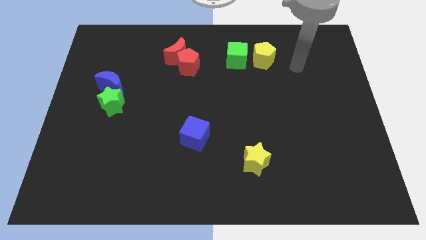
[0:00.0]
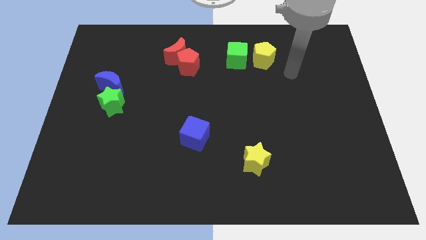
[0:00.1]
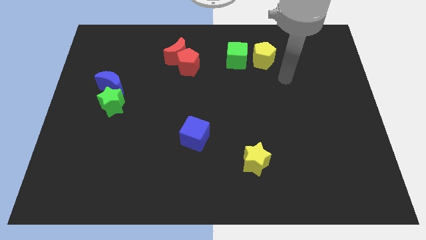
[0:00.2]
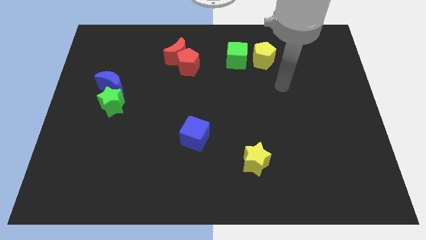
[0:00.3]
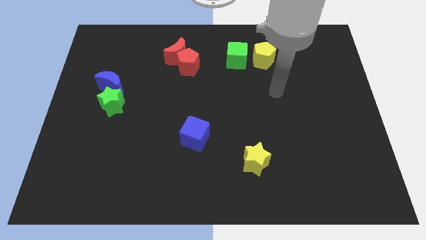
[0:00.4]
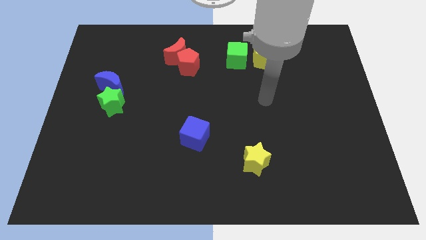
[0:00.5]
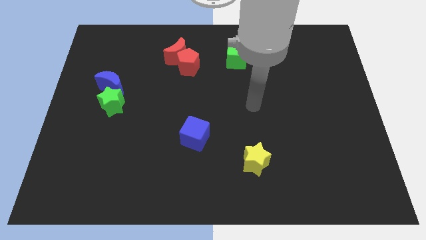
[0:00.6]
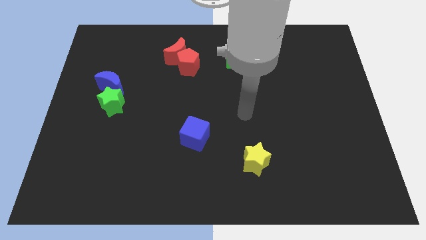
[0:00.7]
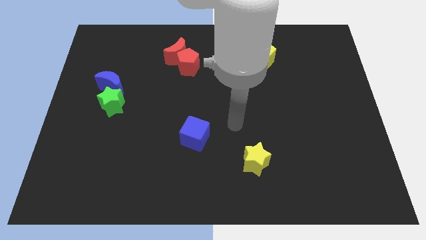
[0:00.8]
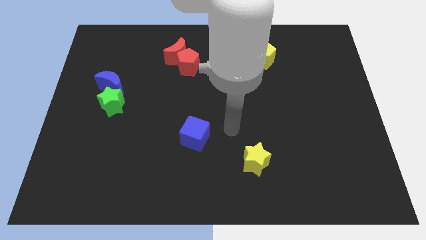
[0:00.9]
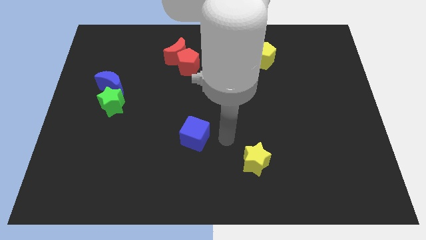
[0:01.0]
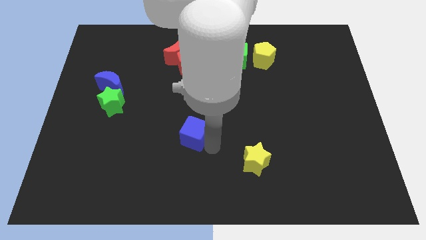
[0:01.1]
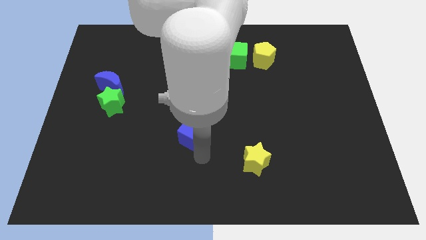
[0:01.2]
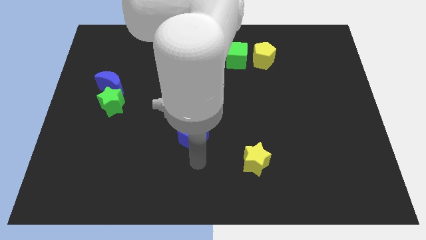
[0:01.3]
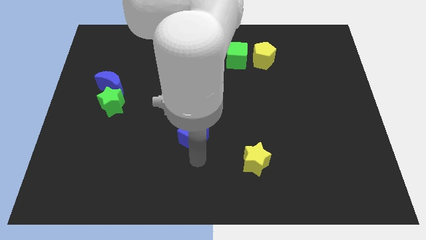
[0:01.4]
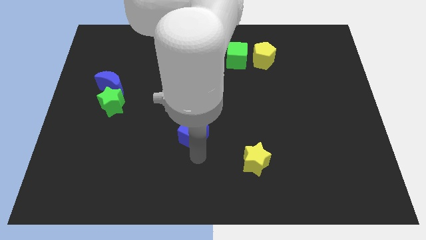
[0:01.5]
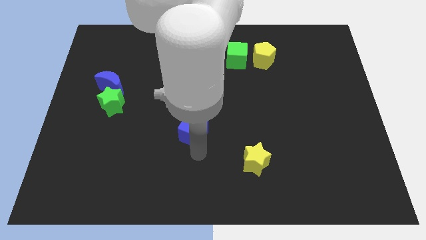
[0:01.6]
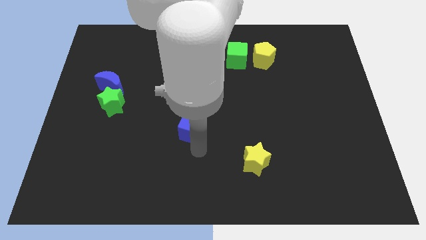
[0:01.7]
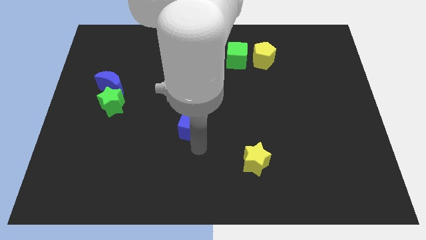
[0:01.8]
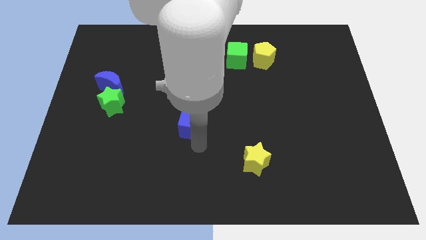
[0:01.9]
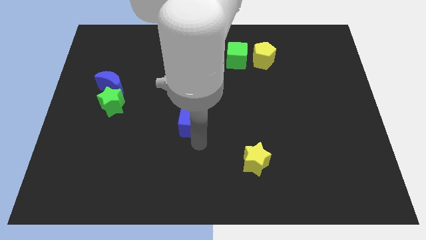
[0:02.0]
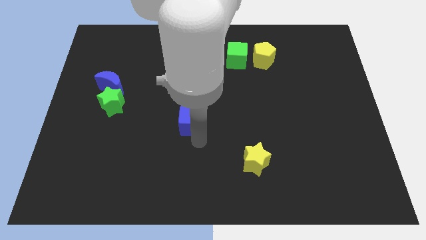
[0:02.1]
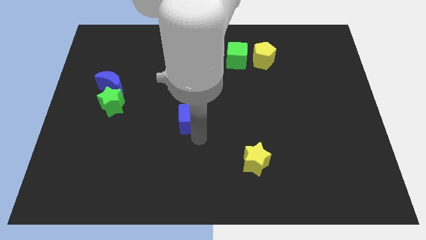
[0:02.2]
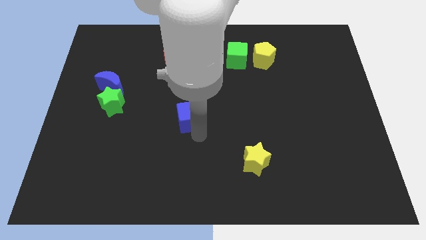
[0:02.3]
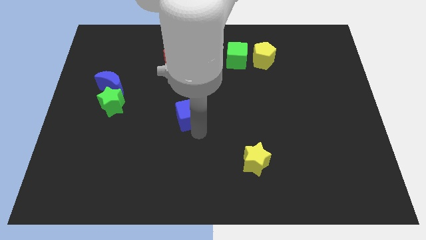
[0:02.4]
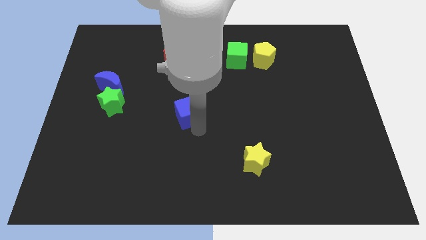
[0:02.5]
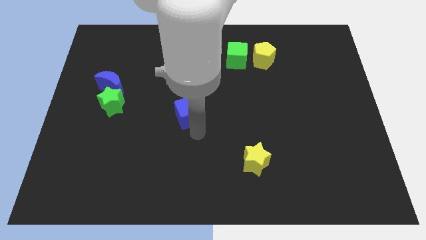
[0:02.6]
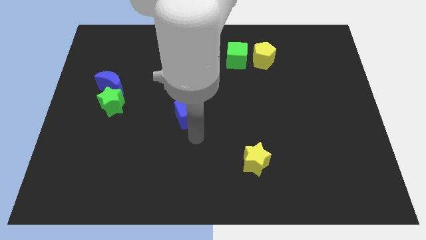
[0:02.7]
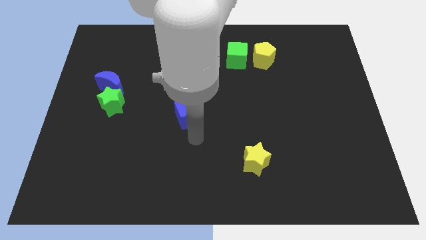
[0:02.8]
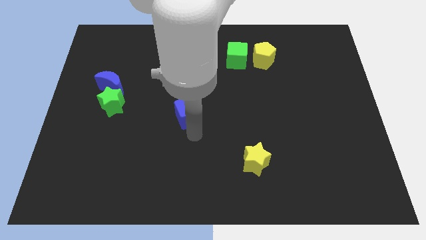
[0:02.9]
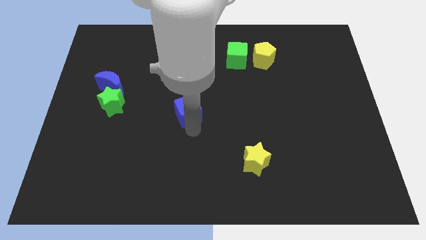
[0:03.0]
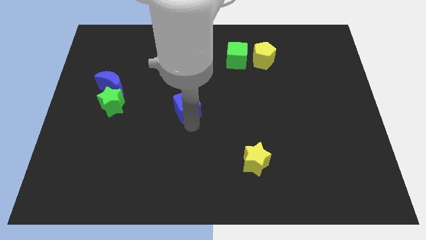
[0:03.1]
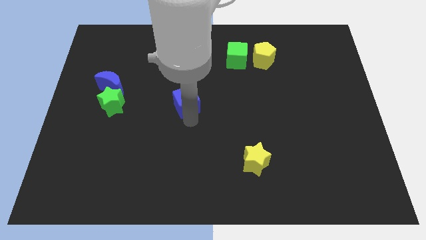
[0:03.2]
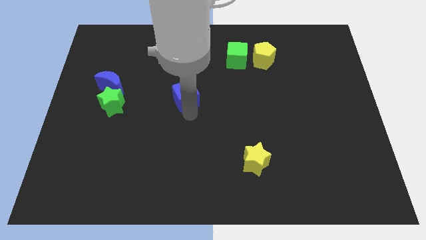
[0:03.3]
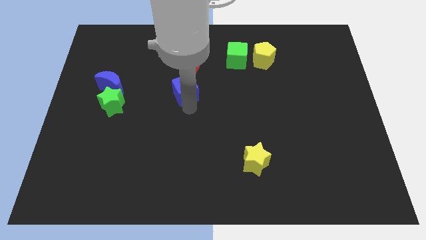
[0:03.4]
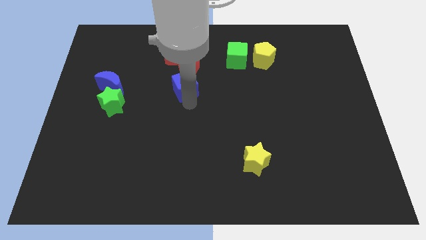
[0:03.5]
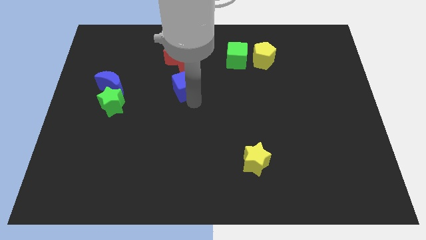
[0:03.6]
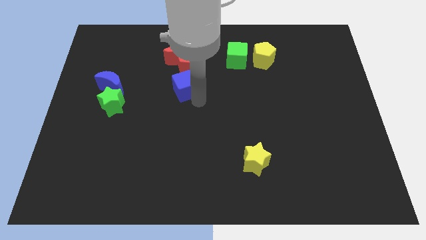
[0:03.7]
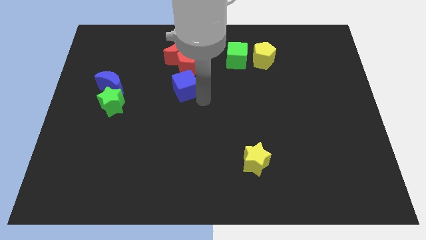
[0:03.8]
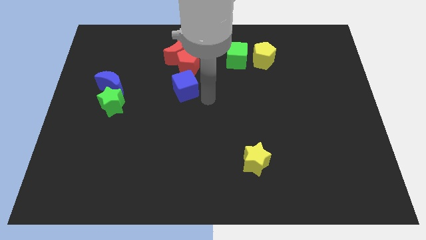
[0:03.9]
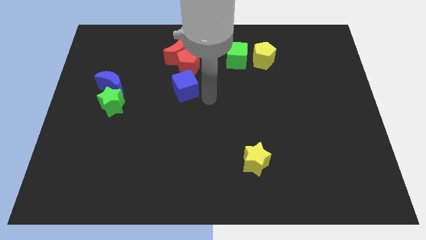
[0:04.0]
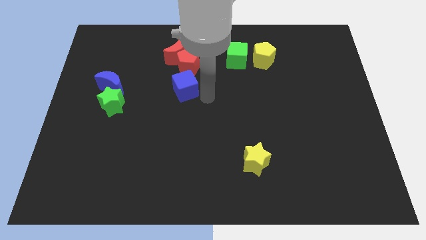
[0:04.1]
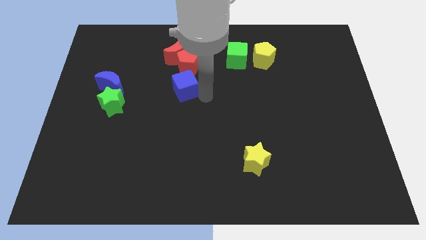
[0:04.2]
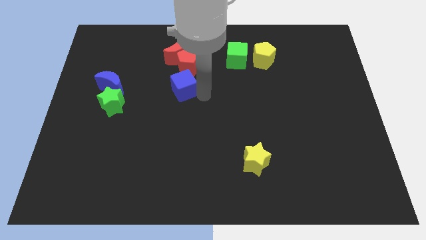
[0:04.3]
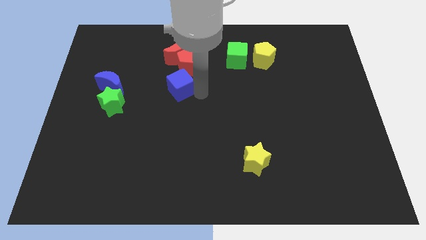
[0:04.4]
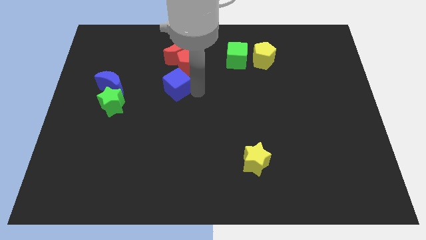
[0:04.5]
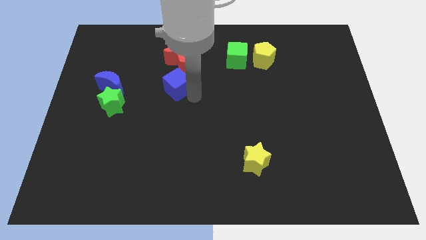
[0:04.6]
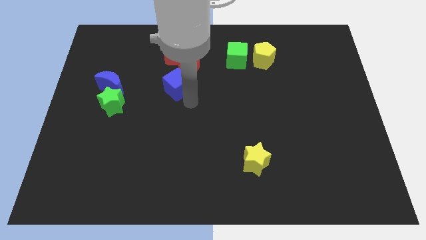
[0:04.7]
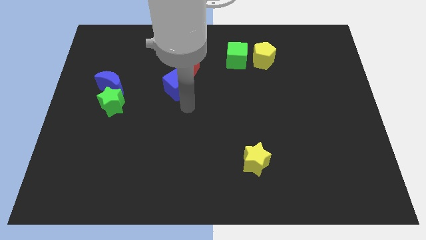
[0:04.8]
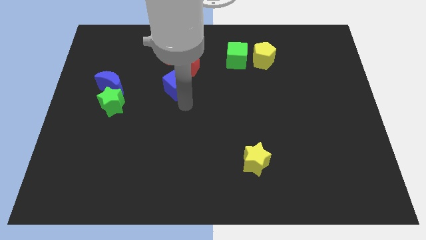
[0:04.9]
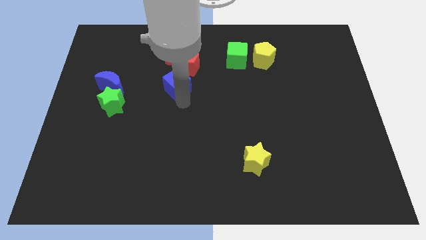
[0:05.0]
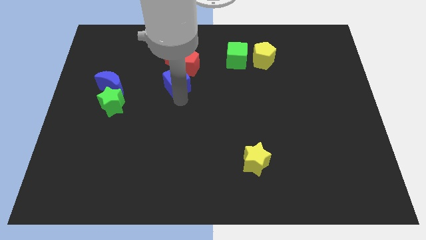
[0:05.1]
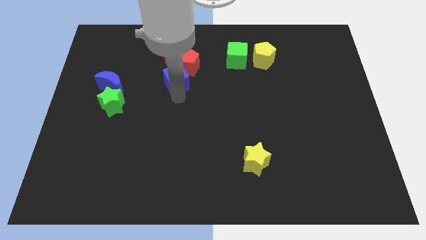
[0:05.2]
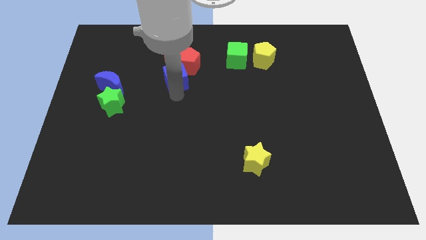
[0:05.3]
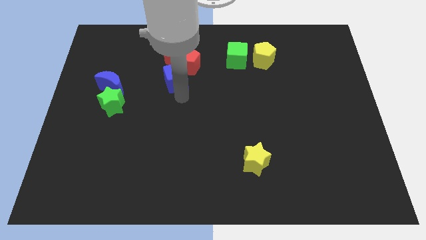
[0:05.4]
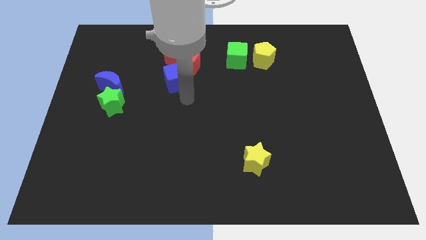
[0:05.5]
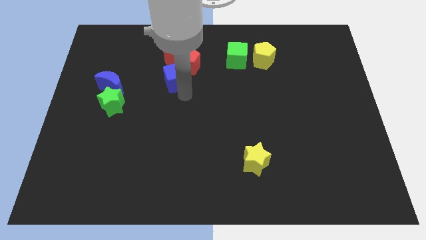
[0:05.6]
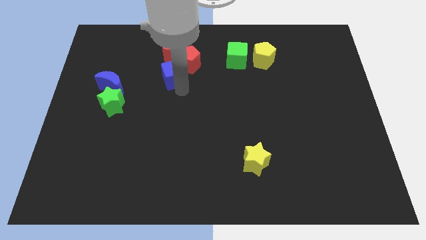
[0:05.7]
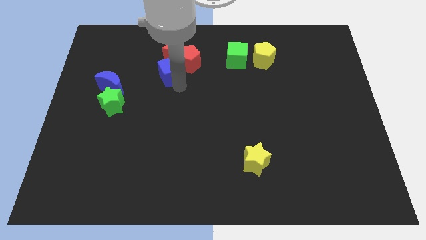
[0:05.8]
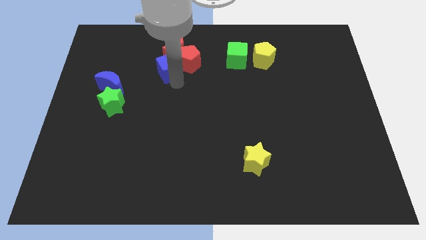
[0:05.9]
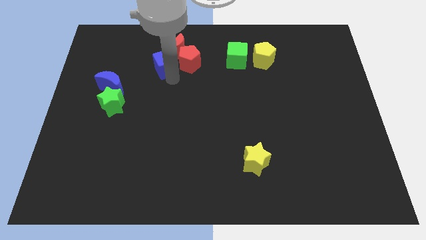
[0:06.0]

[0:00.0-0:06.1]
move the blue cube to the red moon
